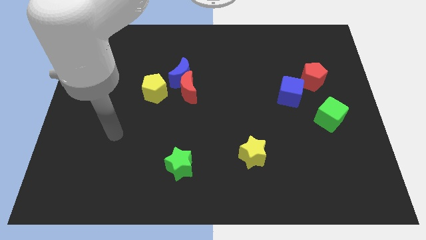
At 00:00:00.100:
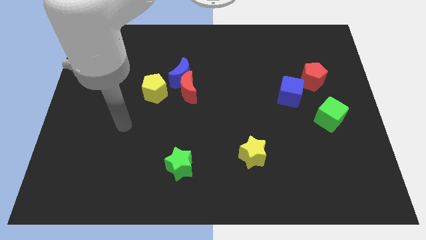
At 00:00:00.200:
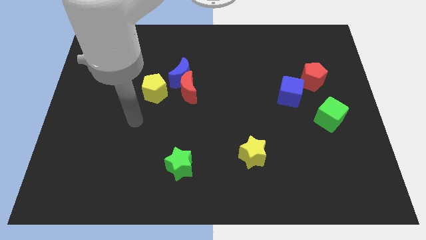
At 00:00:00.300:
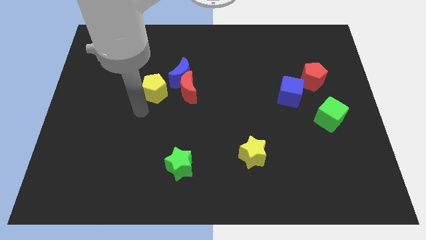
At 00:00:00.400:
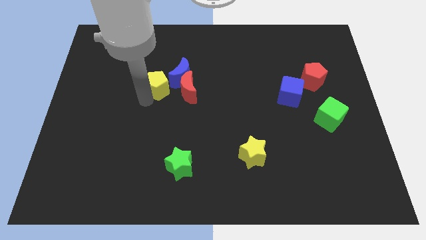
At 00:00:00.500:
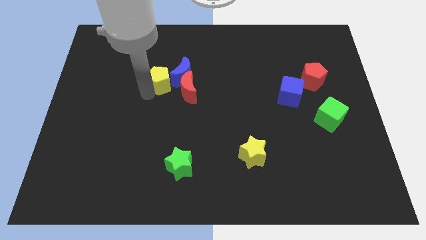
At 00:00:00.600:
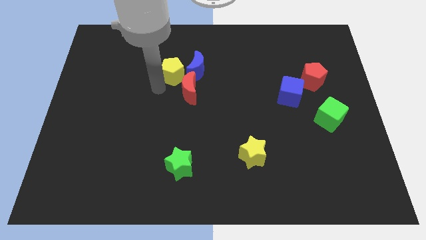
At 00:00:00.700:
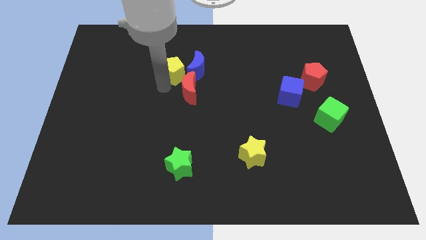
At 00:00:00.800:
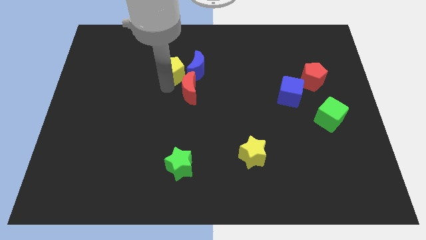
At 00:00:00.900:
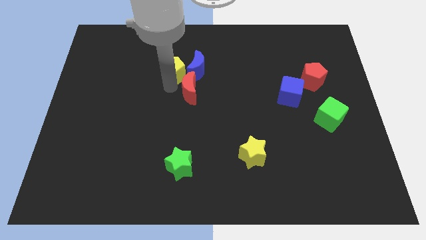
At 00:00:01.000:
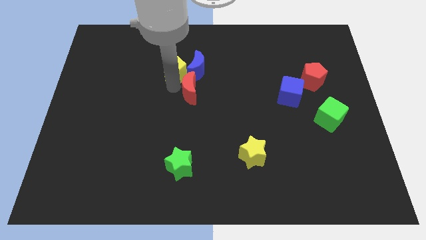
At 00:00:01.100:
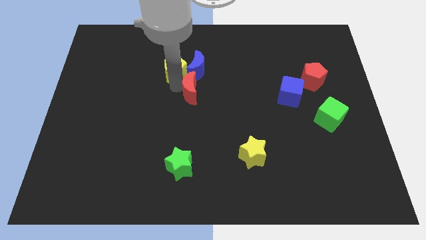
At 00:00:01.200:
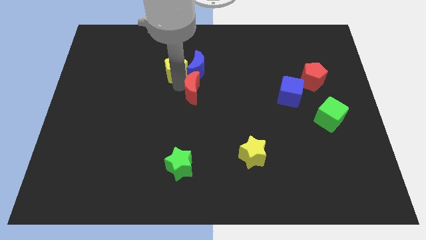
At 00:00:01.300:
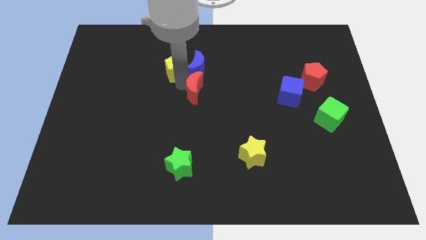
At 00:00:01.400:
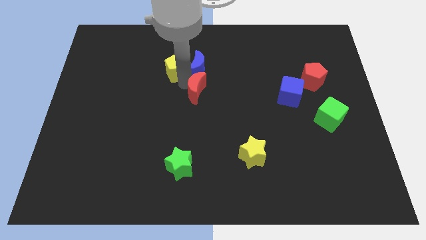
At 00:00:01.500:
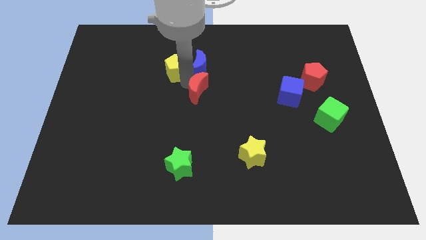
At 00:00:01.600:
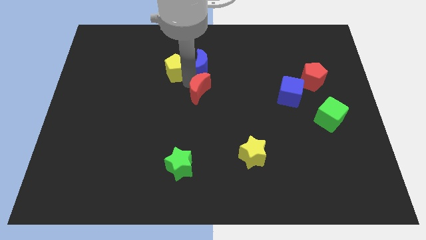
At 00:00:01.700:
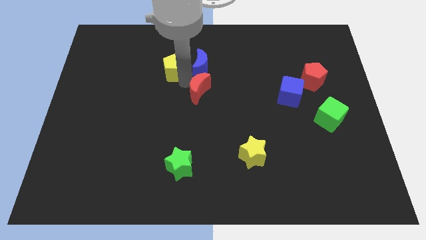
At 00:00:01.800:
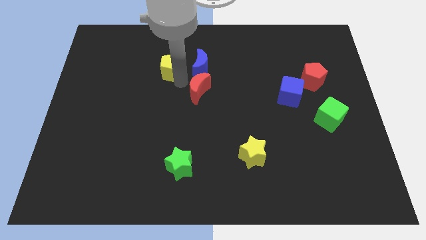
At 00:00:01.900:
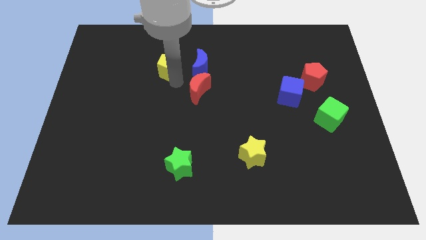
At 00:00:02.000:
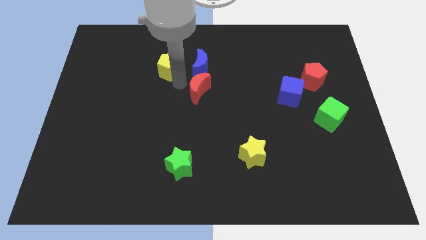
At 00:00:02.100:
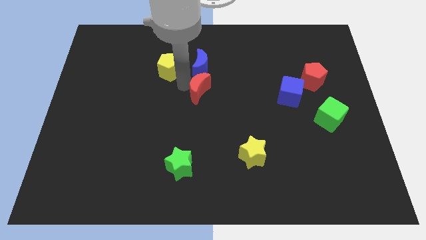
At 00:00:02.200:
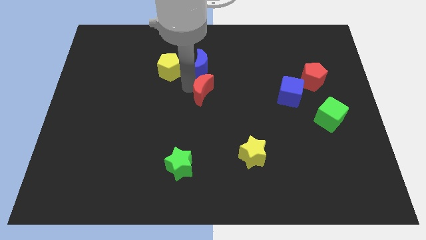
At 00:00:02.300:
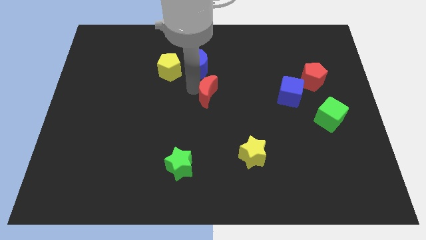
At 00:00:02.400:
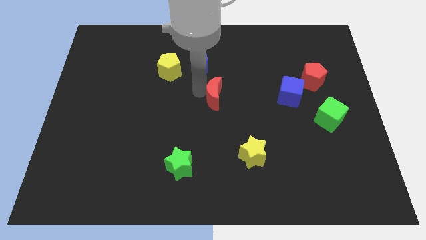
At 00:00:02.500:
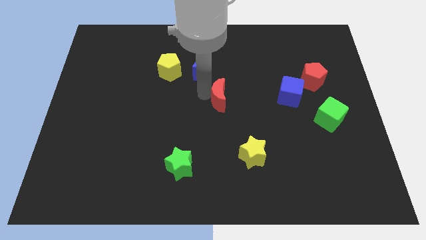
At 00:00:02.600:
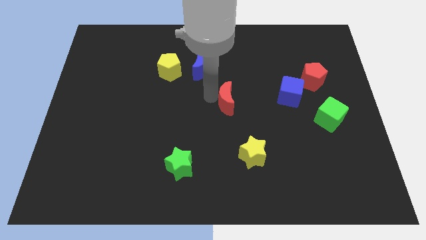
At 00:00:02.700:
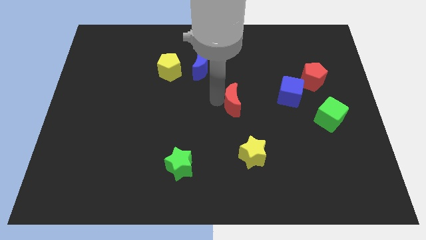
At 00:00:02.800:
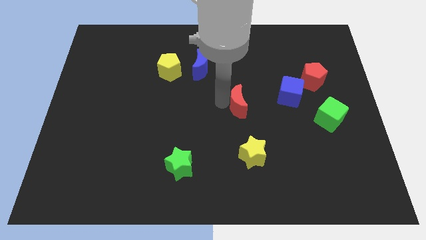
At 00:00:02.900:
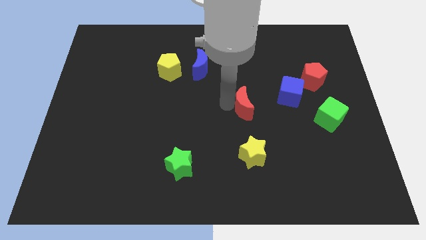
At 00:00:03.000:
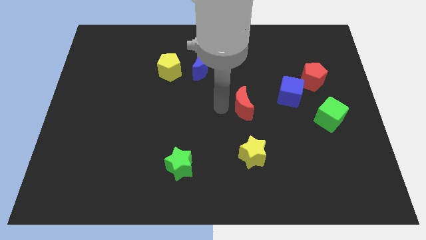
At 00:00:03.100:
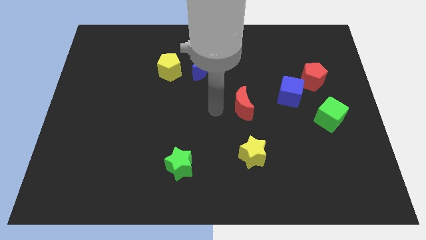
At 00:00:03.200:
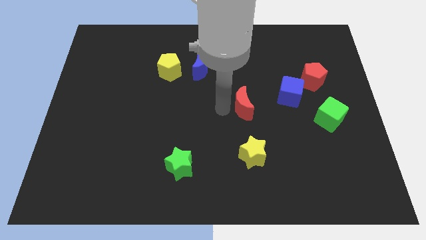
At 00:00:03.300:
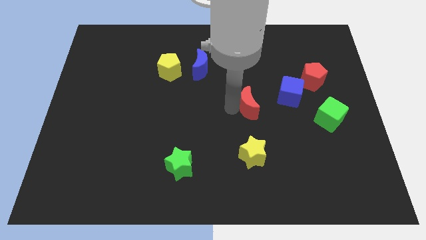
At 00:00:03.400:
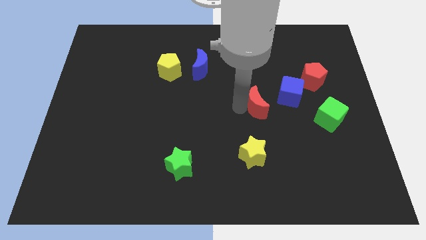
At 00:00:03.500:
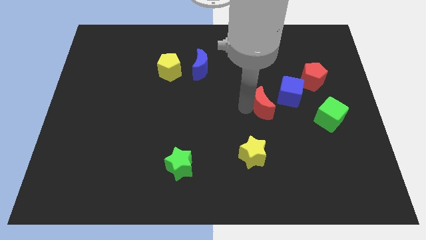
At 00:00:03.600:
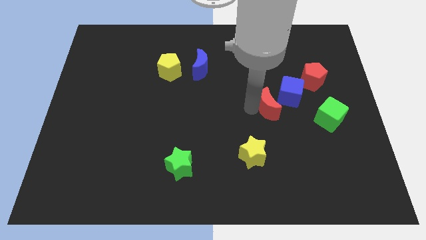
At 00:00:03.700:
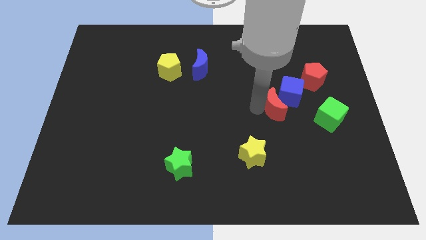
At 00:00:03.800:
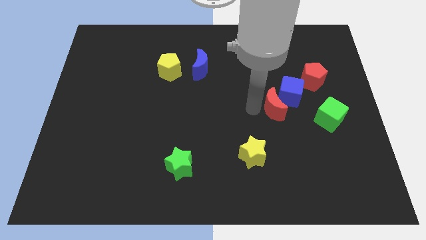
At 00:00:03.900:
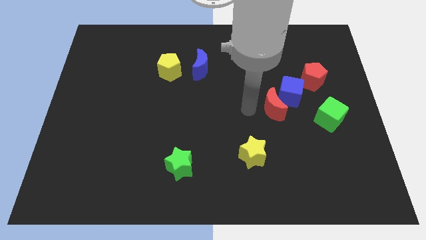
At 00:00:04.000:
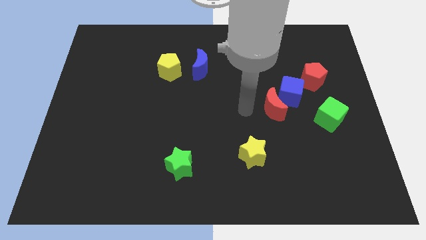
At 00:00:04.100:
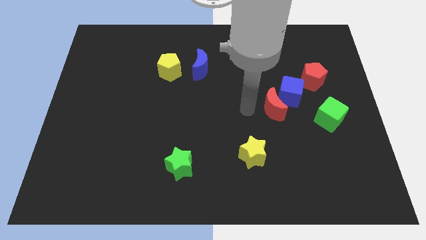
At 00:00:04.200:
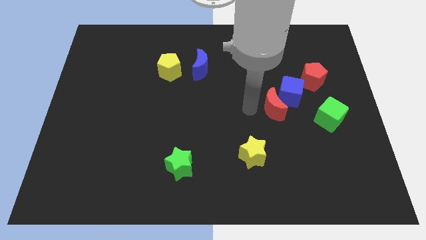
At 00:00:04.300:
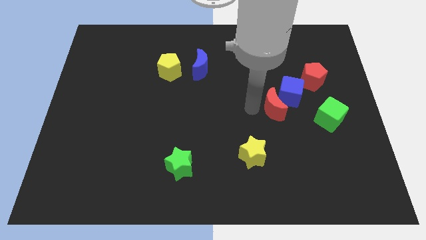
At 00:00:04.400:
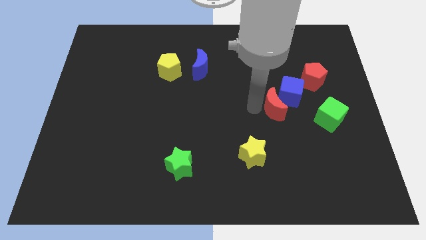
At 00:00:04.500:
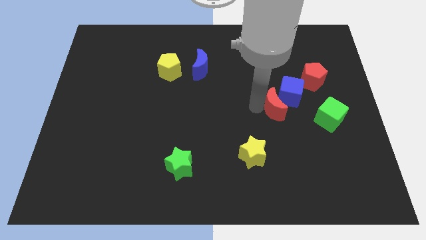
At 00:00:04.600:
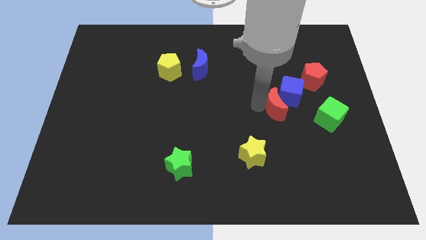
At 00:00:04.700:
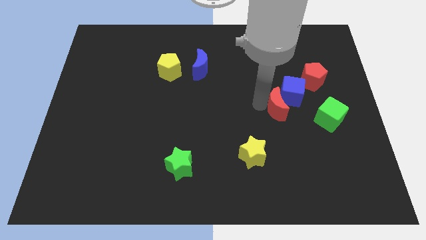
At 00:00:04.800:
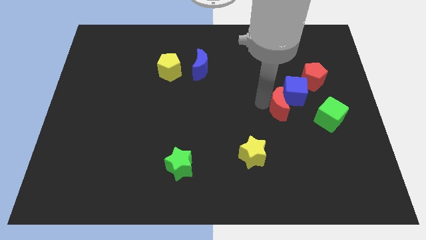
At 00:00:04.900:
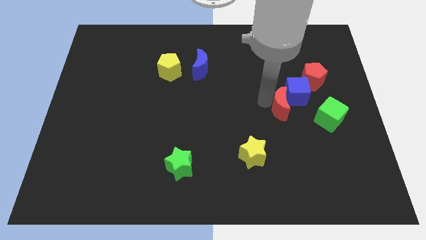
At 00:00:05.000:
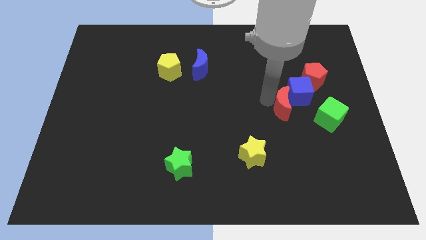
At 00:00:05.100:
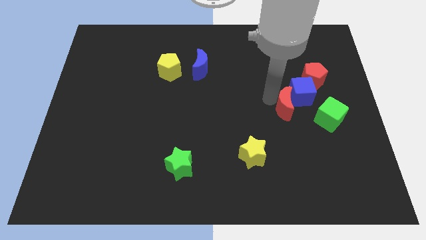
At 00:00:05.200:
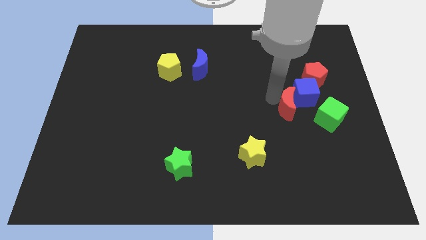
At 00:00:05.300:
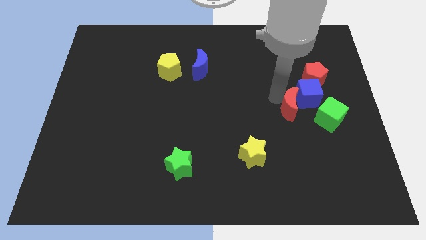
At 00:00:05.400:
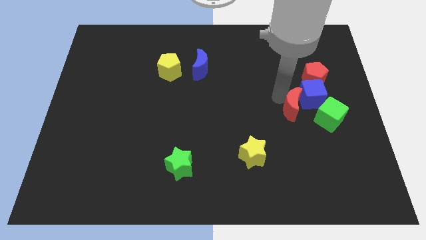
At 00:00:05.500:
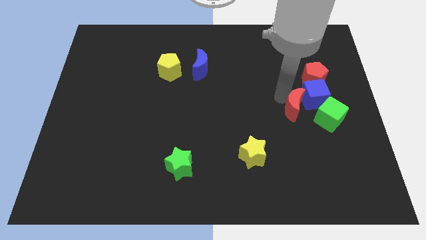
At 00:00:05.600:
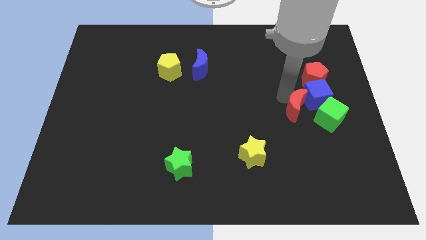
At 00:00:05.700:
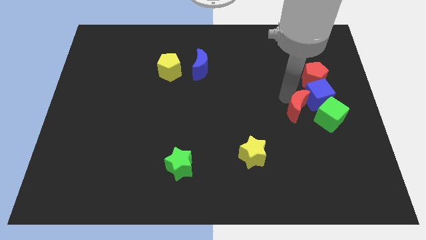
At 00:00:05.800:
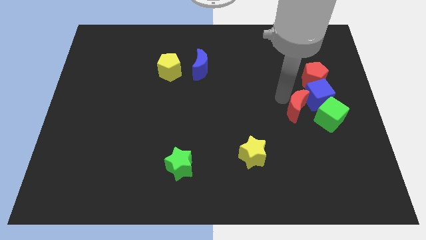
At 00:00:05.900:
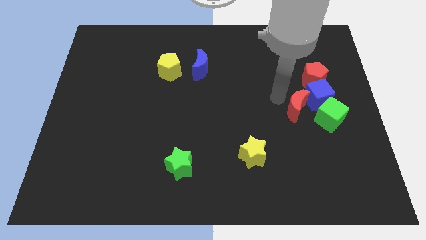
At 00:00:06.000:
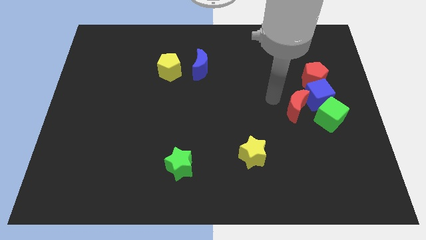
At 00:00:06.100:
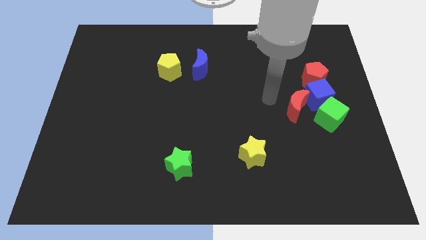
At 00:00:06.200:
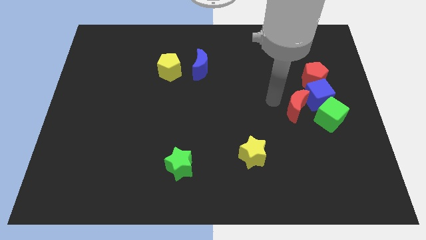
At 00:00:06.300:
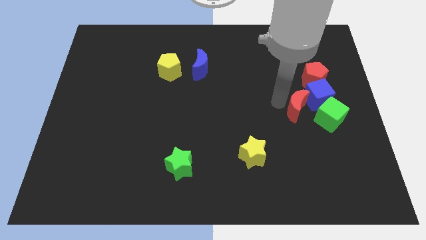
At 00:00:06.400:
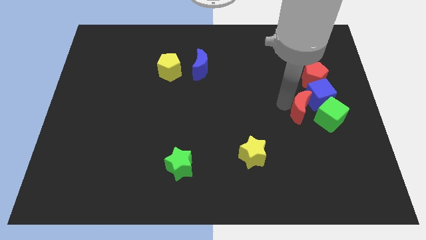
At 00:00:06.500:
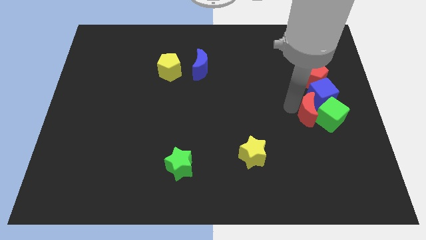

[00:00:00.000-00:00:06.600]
slide the red moon next to the green cube

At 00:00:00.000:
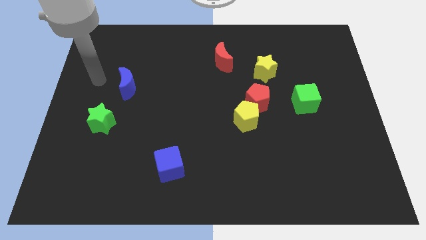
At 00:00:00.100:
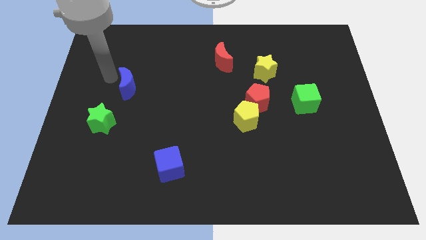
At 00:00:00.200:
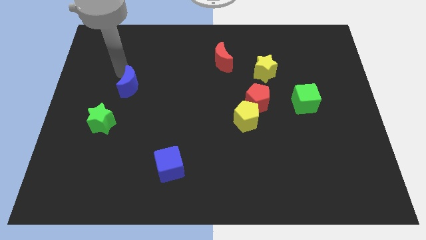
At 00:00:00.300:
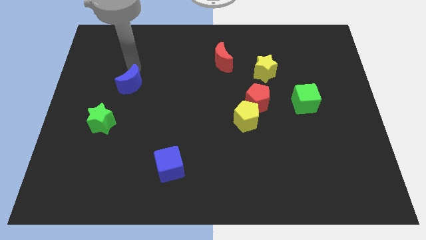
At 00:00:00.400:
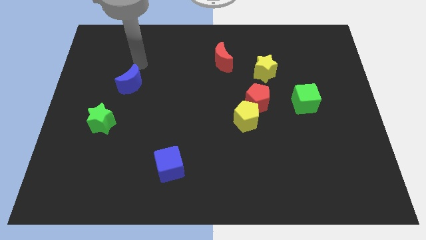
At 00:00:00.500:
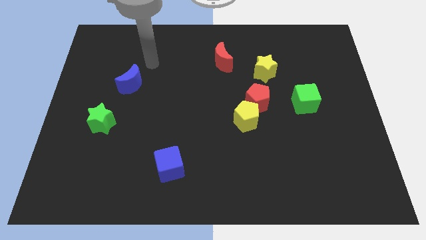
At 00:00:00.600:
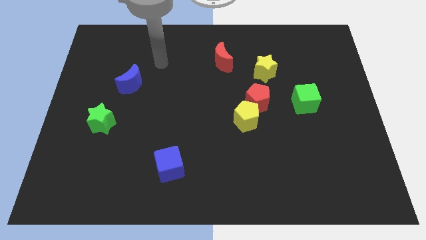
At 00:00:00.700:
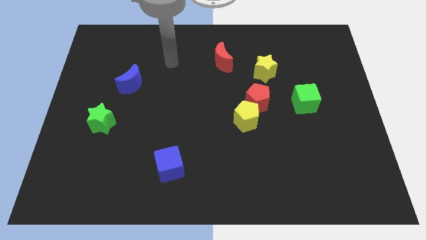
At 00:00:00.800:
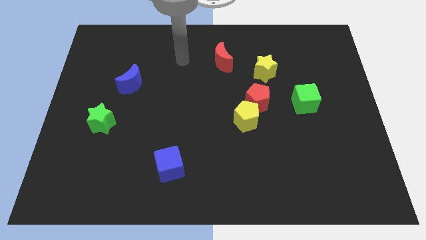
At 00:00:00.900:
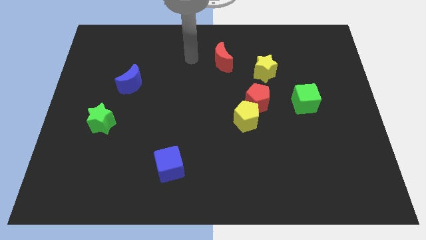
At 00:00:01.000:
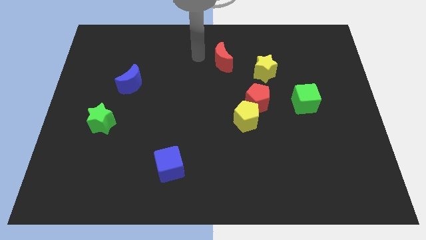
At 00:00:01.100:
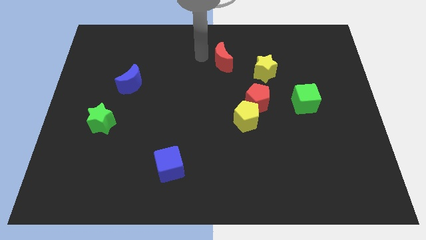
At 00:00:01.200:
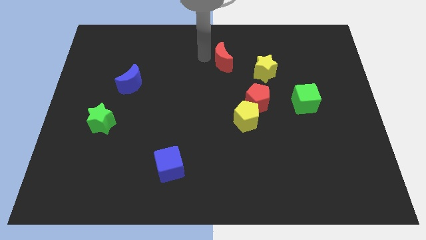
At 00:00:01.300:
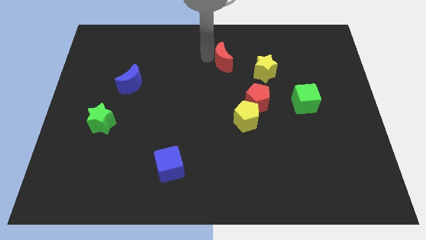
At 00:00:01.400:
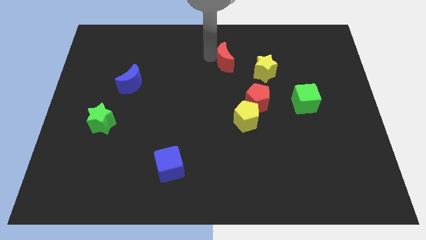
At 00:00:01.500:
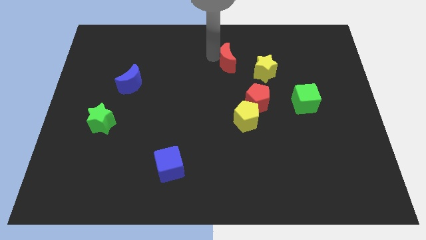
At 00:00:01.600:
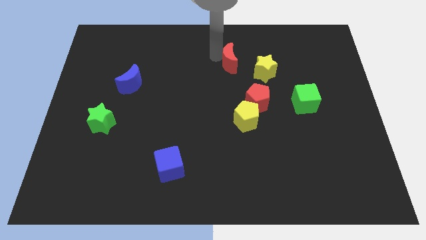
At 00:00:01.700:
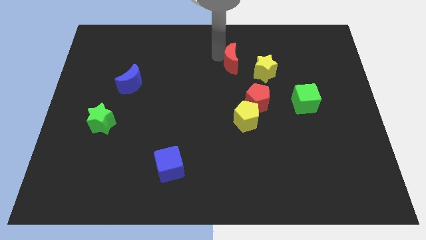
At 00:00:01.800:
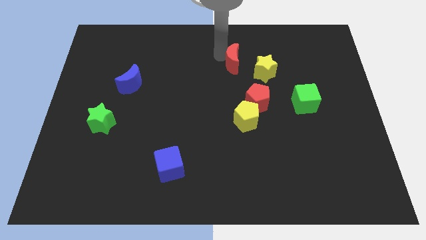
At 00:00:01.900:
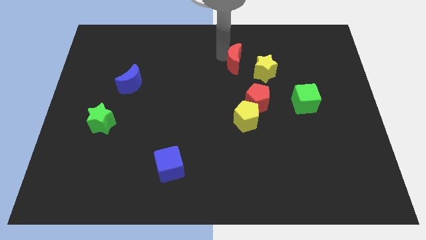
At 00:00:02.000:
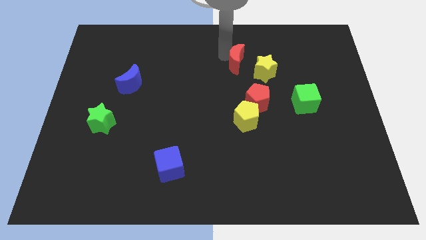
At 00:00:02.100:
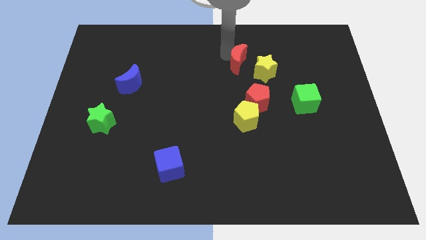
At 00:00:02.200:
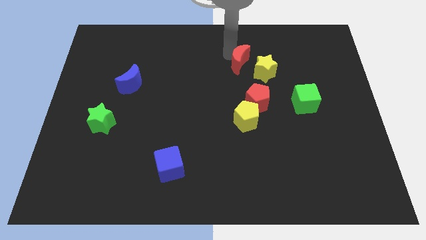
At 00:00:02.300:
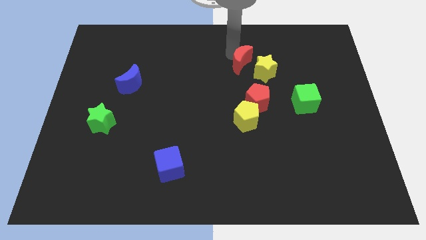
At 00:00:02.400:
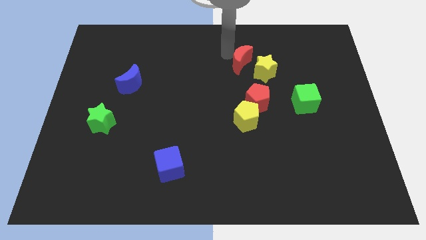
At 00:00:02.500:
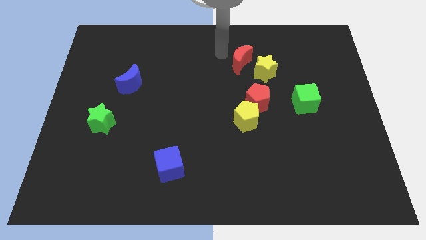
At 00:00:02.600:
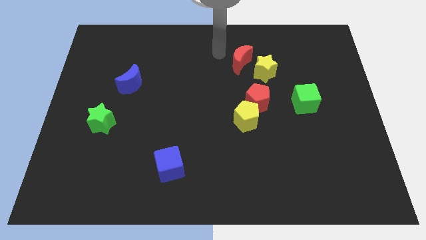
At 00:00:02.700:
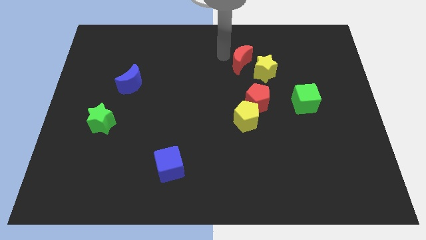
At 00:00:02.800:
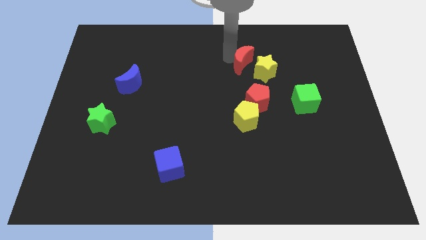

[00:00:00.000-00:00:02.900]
push the red moon towards the yellow star
